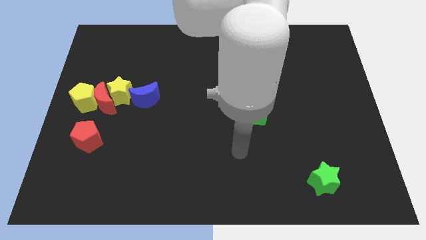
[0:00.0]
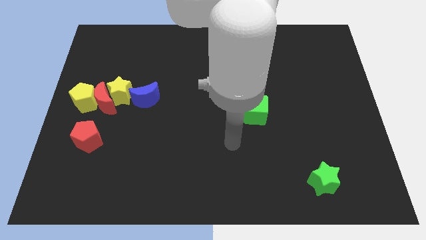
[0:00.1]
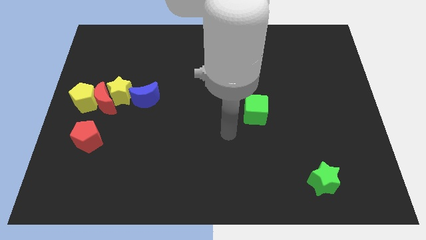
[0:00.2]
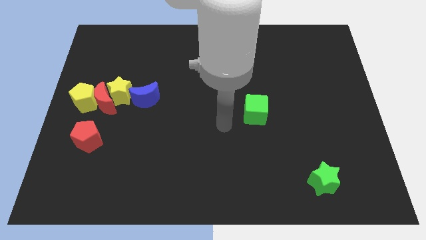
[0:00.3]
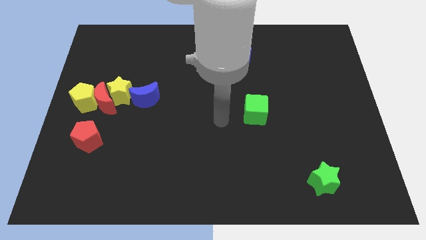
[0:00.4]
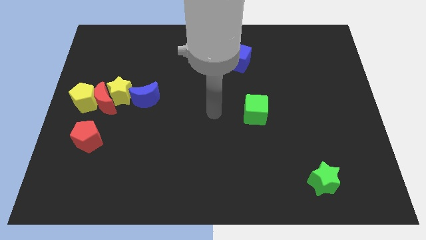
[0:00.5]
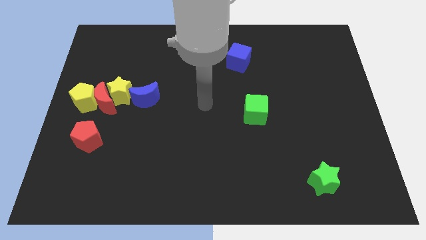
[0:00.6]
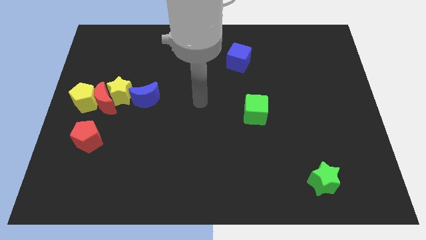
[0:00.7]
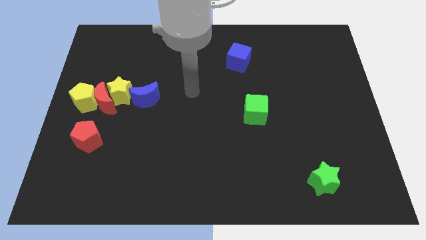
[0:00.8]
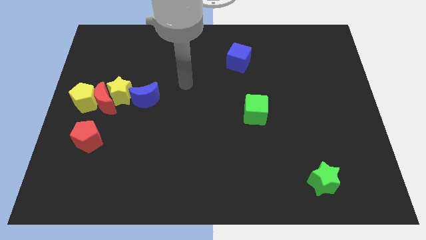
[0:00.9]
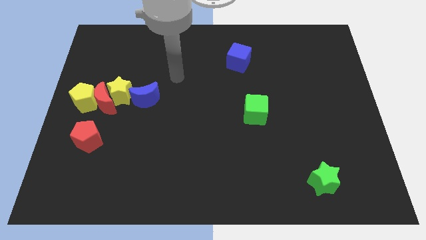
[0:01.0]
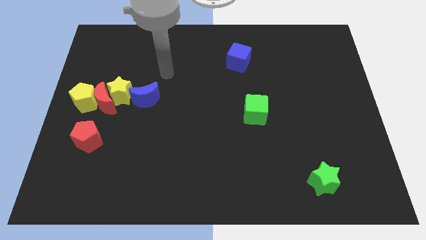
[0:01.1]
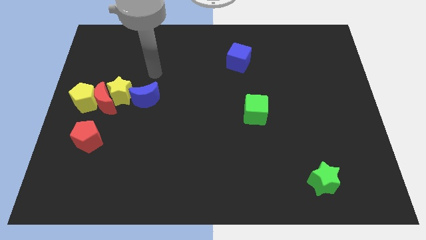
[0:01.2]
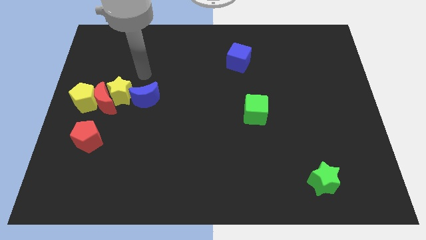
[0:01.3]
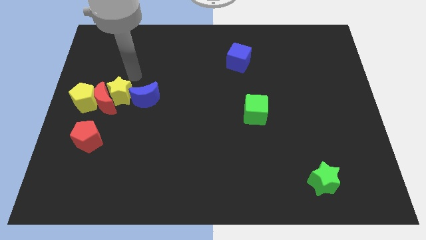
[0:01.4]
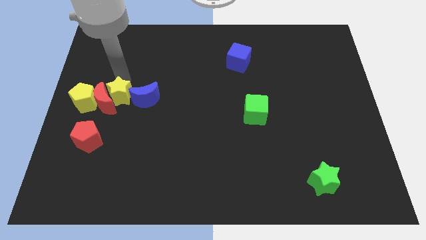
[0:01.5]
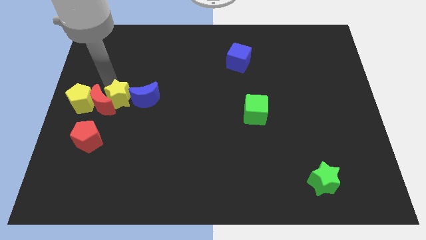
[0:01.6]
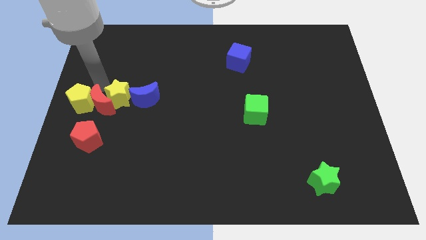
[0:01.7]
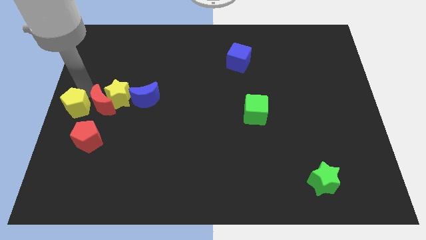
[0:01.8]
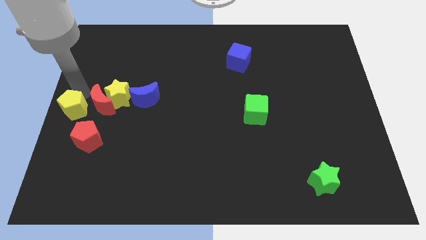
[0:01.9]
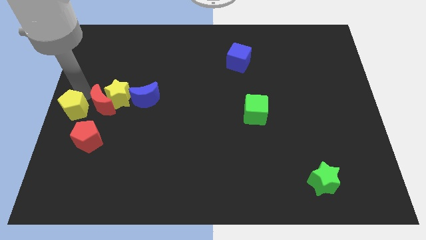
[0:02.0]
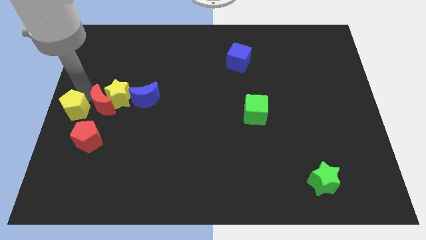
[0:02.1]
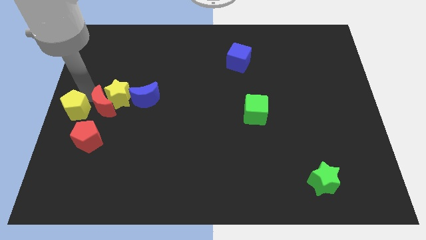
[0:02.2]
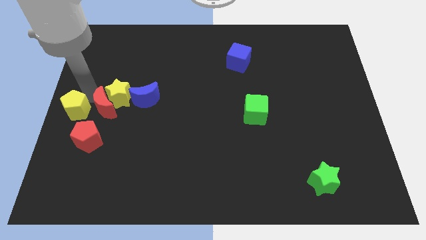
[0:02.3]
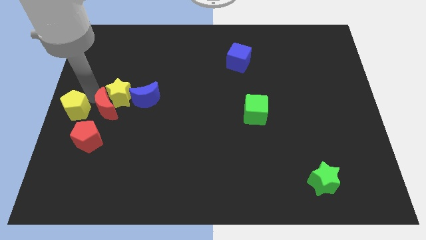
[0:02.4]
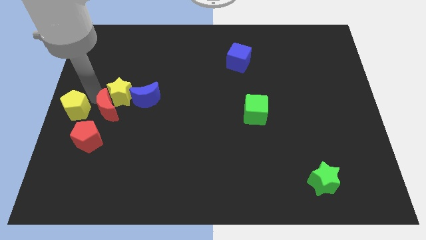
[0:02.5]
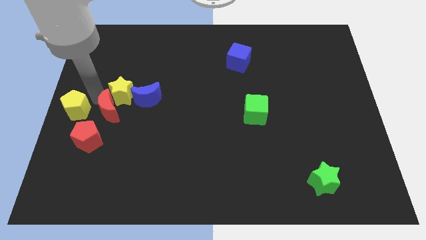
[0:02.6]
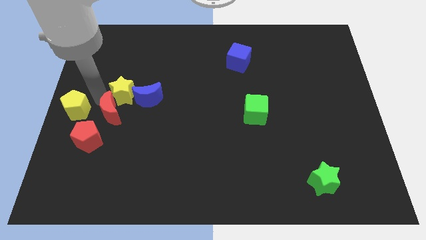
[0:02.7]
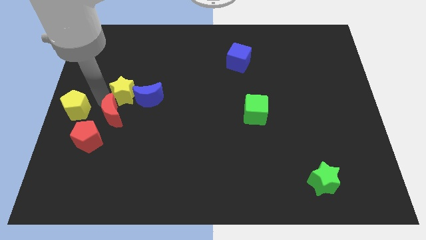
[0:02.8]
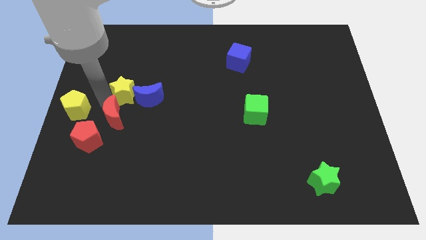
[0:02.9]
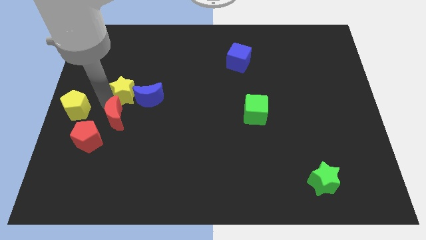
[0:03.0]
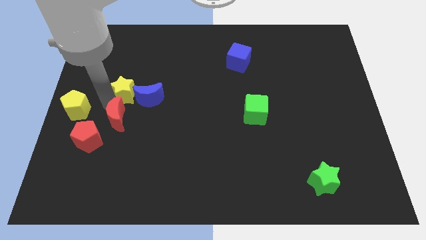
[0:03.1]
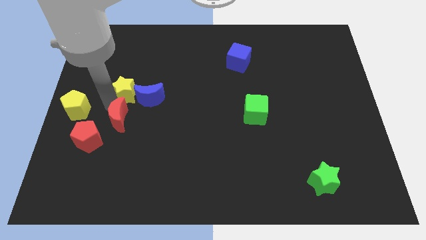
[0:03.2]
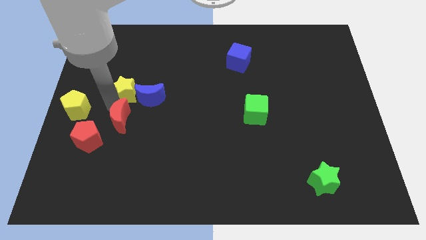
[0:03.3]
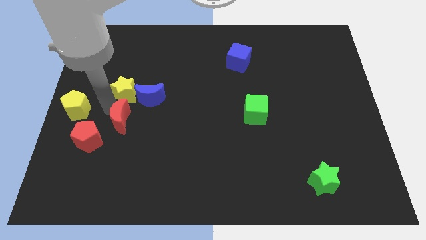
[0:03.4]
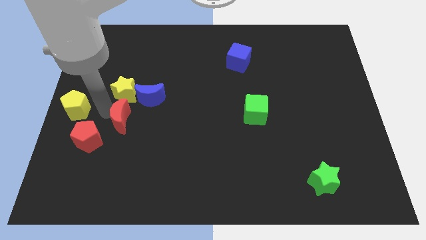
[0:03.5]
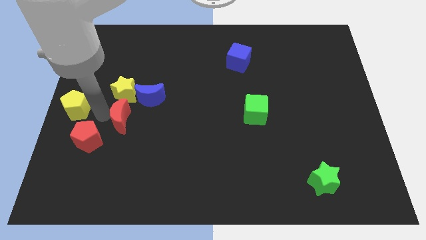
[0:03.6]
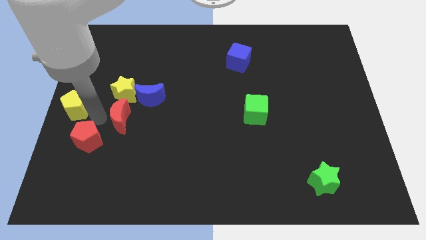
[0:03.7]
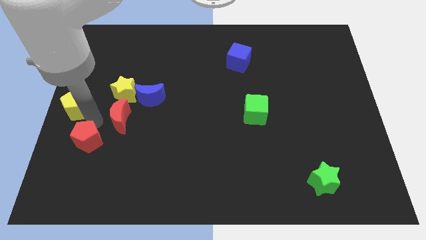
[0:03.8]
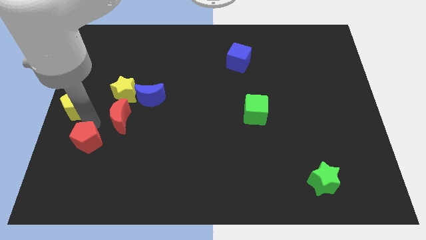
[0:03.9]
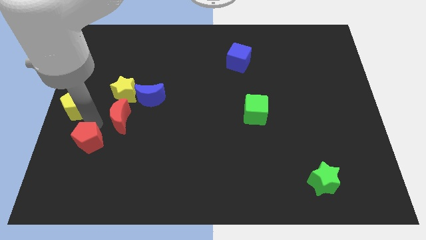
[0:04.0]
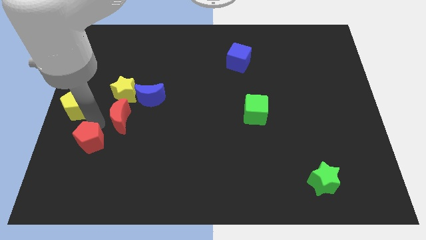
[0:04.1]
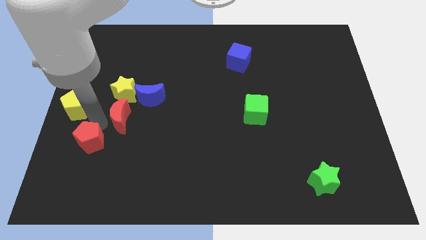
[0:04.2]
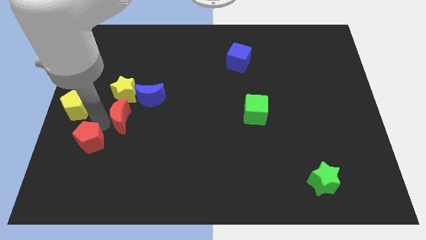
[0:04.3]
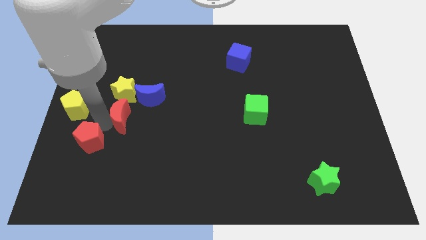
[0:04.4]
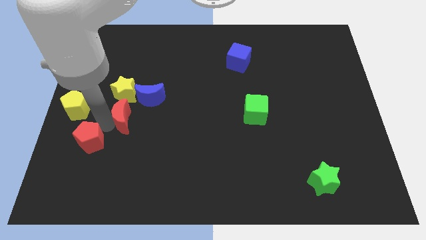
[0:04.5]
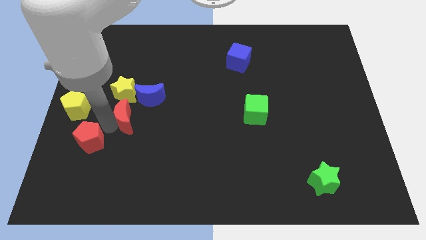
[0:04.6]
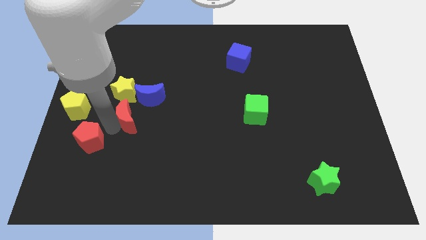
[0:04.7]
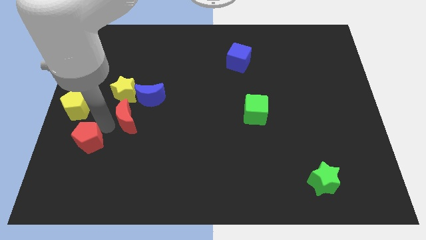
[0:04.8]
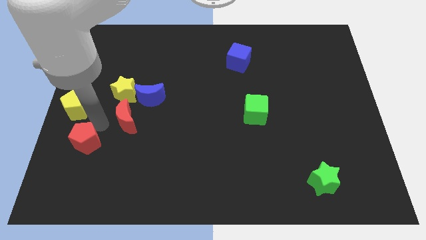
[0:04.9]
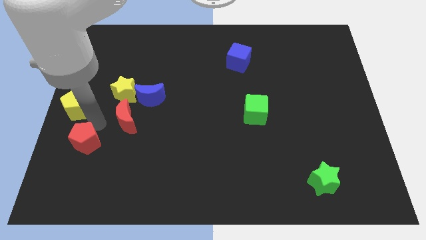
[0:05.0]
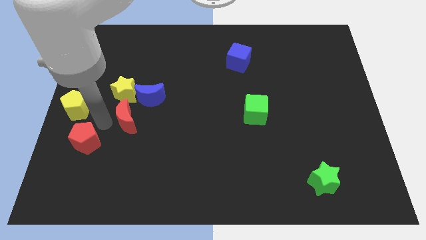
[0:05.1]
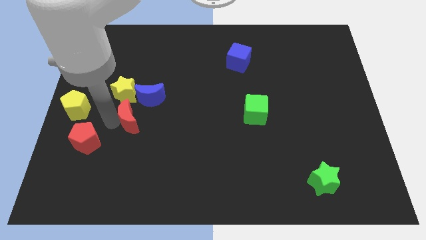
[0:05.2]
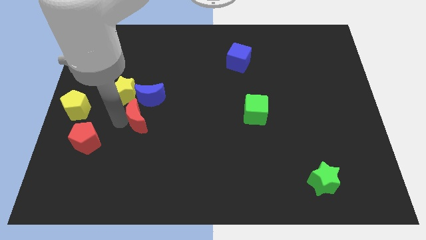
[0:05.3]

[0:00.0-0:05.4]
push the red moon a bit to the right

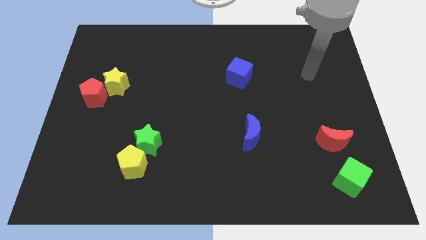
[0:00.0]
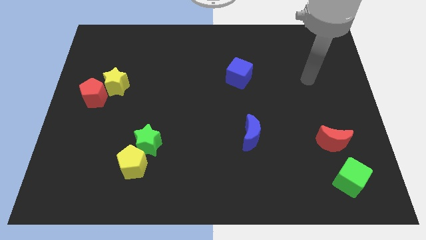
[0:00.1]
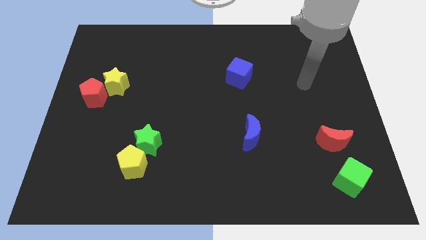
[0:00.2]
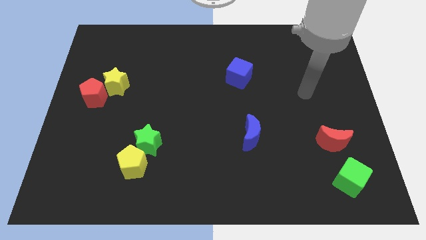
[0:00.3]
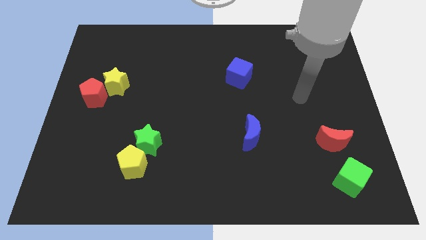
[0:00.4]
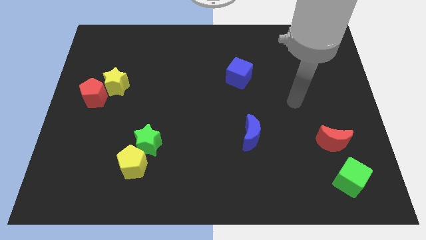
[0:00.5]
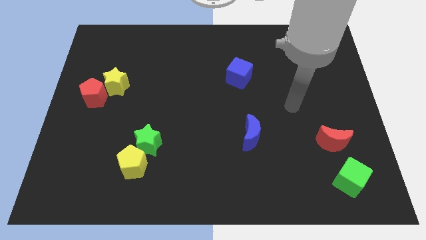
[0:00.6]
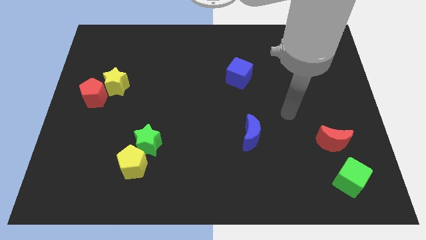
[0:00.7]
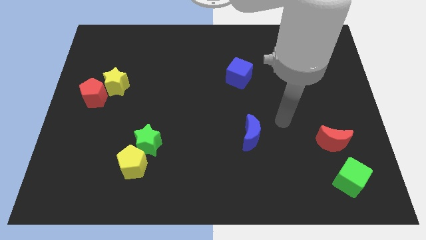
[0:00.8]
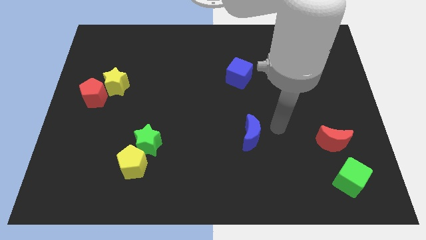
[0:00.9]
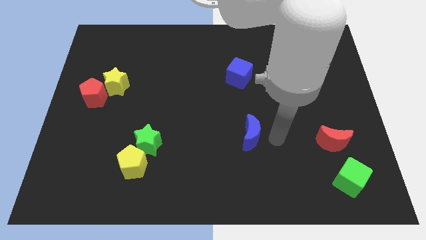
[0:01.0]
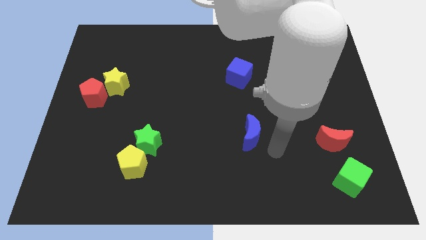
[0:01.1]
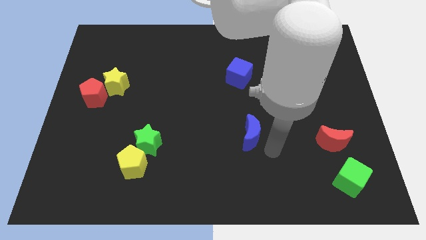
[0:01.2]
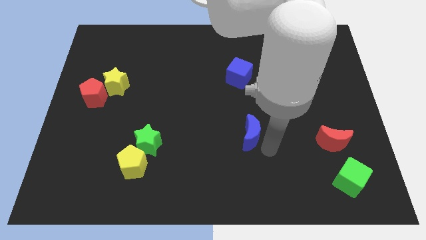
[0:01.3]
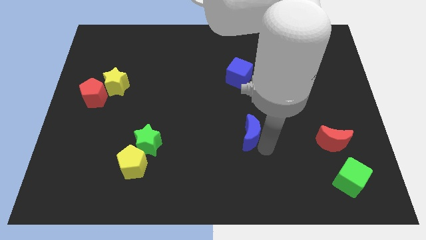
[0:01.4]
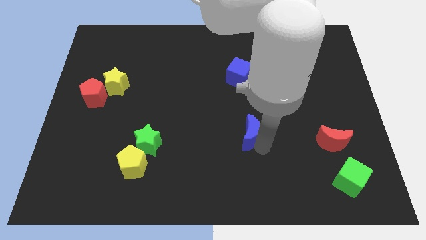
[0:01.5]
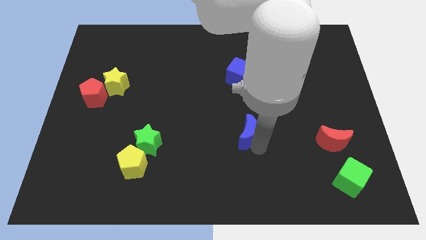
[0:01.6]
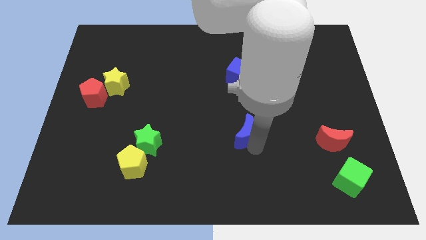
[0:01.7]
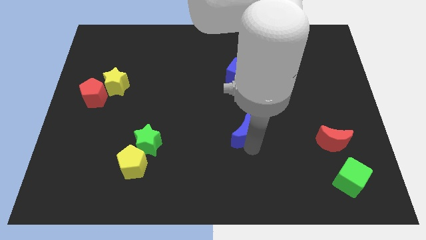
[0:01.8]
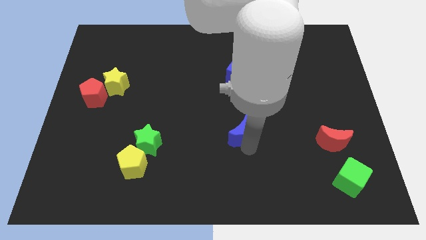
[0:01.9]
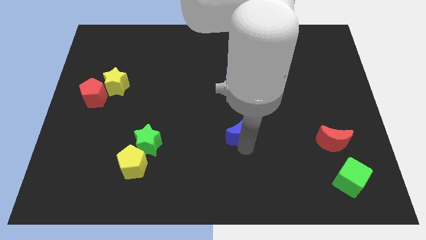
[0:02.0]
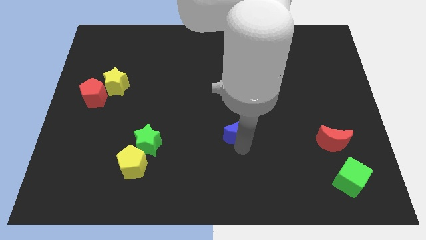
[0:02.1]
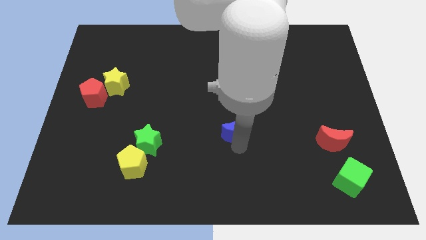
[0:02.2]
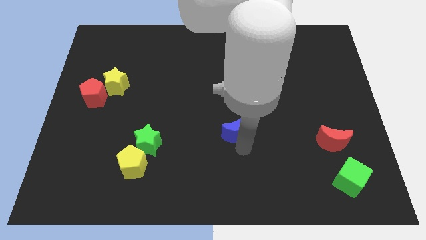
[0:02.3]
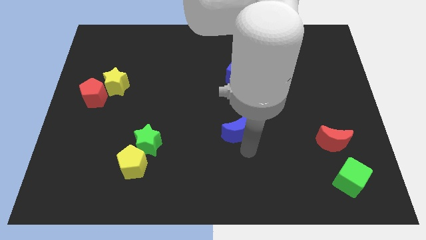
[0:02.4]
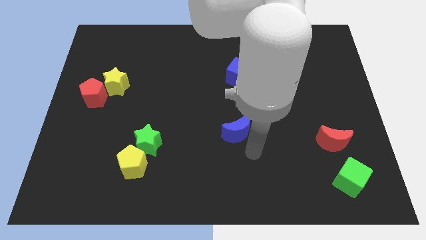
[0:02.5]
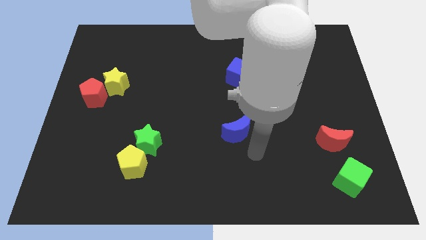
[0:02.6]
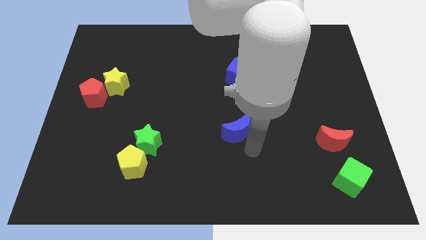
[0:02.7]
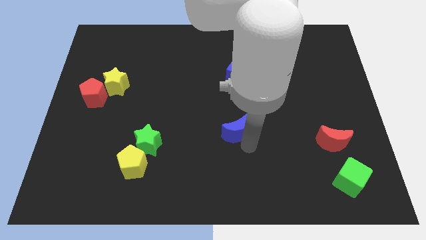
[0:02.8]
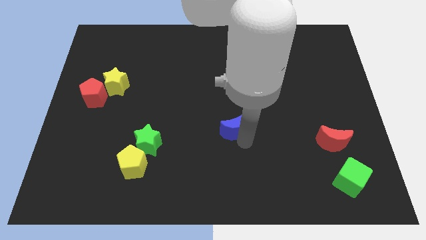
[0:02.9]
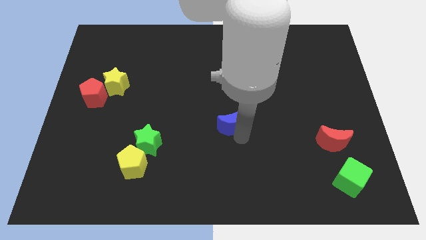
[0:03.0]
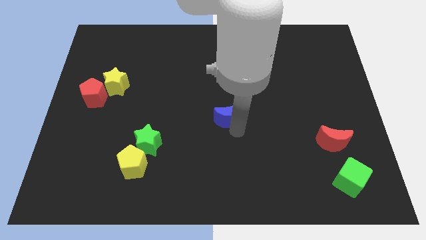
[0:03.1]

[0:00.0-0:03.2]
slightly slide the blue moon upwards and then to the left
